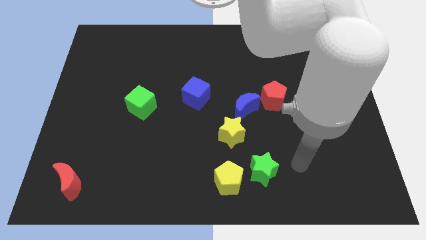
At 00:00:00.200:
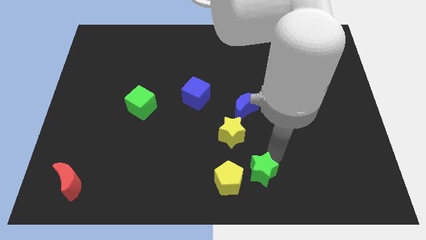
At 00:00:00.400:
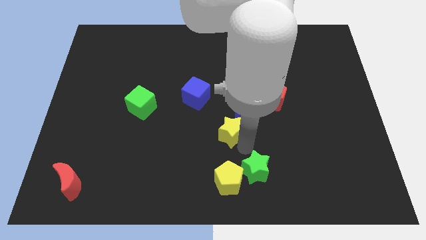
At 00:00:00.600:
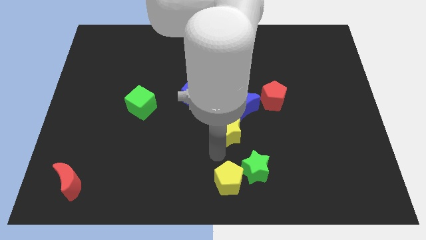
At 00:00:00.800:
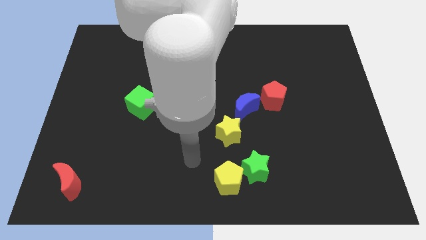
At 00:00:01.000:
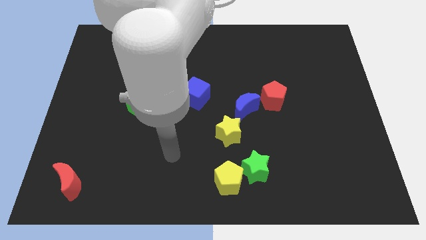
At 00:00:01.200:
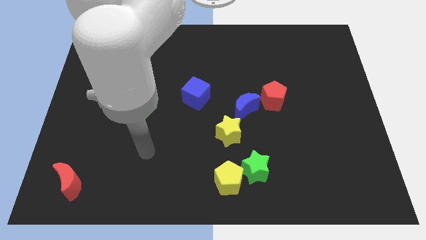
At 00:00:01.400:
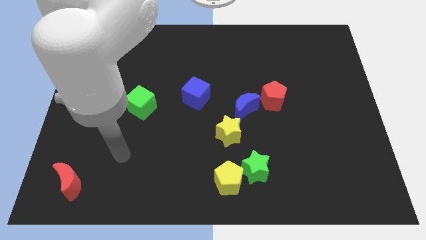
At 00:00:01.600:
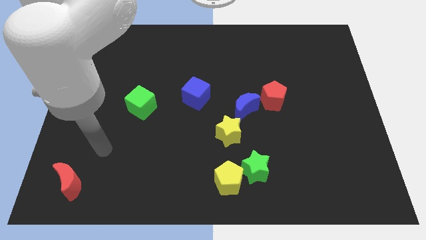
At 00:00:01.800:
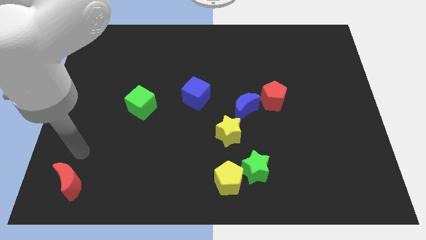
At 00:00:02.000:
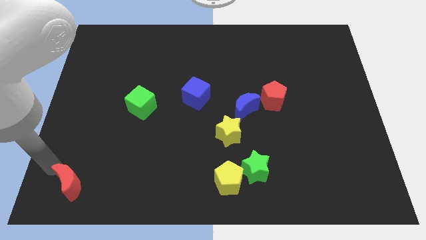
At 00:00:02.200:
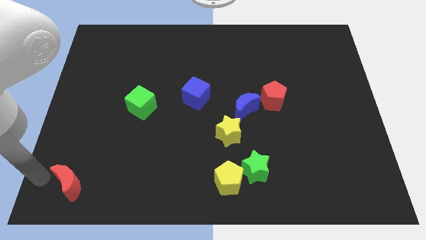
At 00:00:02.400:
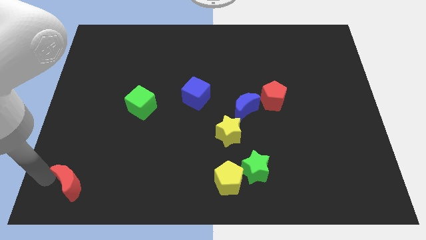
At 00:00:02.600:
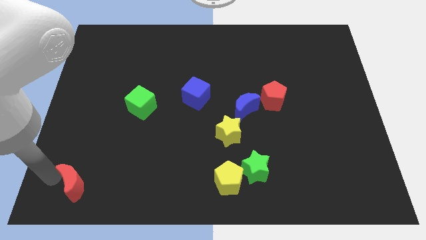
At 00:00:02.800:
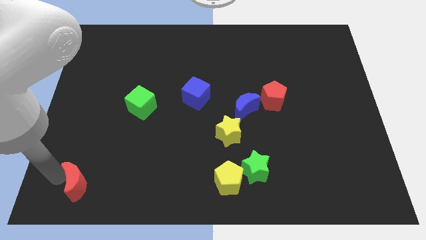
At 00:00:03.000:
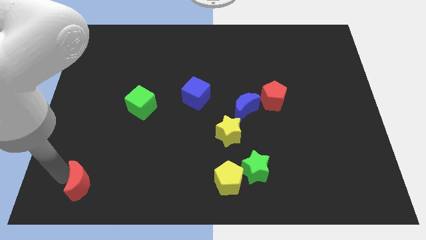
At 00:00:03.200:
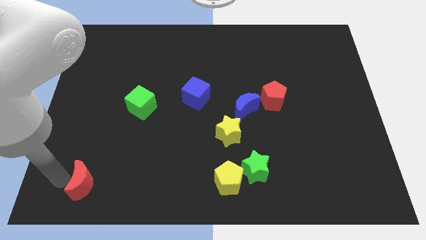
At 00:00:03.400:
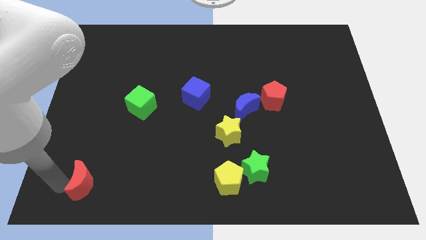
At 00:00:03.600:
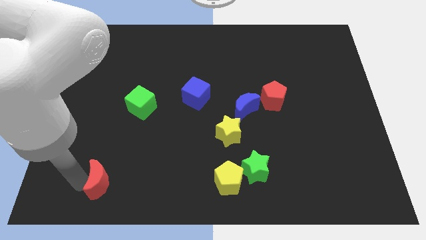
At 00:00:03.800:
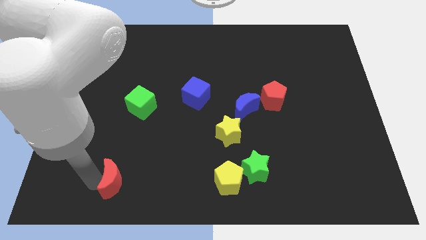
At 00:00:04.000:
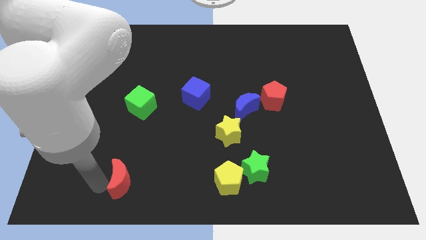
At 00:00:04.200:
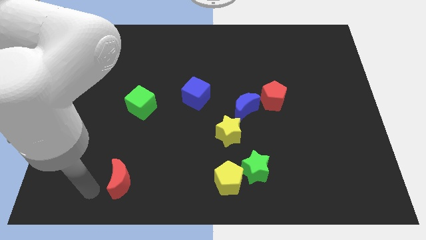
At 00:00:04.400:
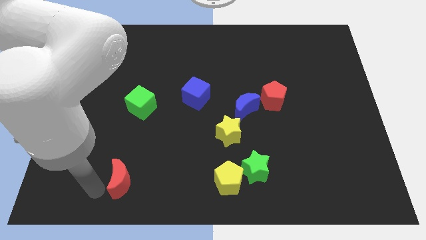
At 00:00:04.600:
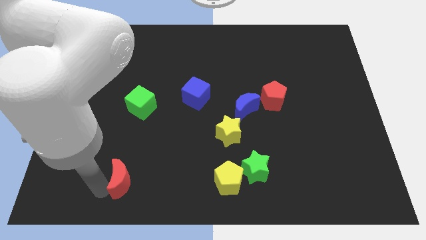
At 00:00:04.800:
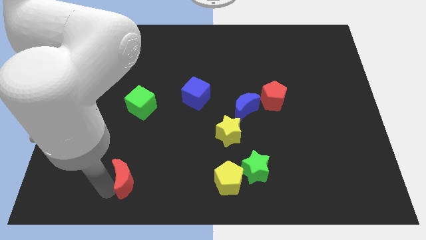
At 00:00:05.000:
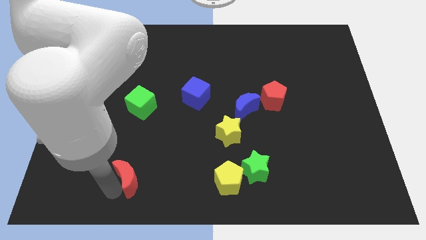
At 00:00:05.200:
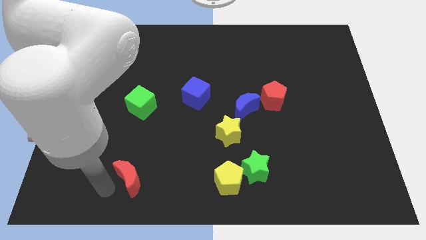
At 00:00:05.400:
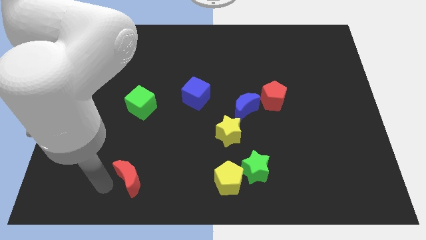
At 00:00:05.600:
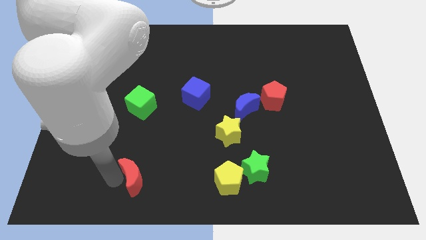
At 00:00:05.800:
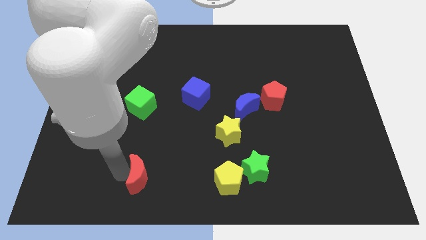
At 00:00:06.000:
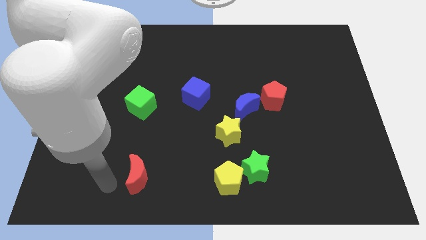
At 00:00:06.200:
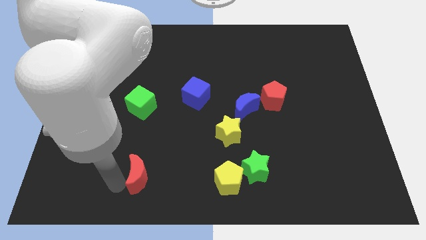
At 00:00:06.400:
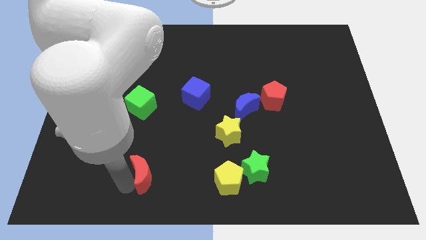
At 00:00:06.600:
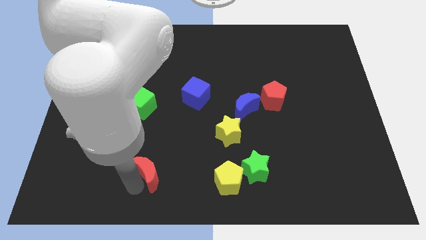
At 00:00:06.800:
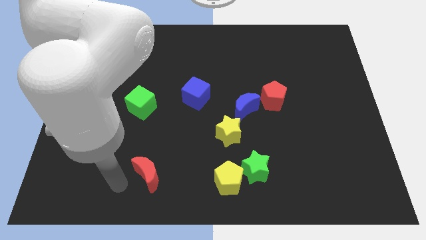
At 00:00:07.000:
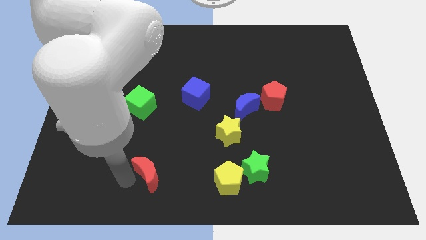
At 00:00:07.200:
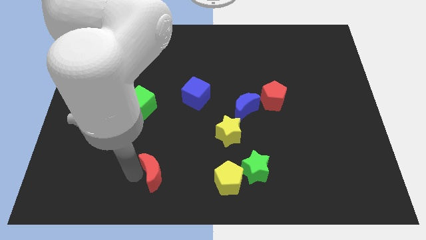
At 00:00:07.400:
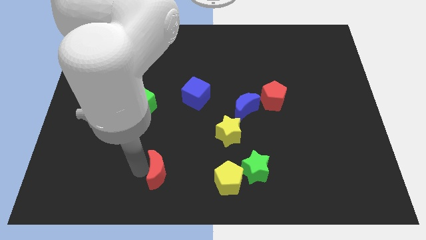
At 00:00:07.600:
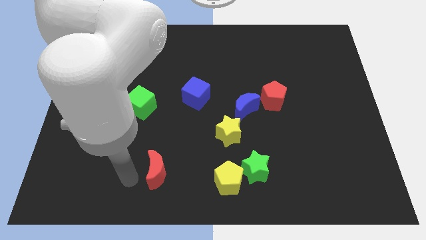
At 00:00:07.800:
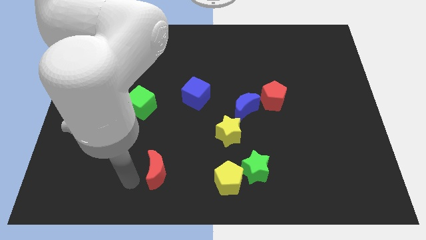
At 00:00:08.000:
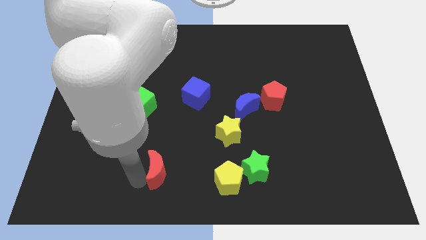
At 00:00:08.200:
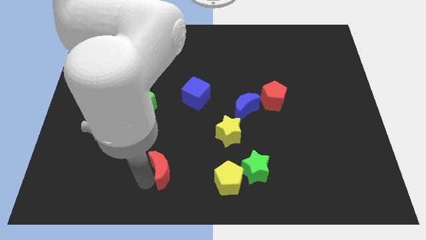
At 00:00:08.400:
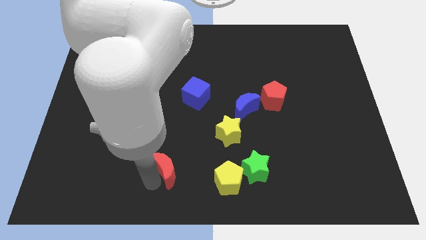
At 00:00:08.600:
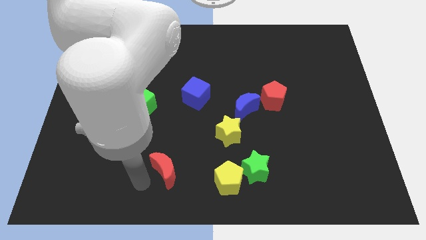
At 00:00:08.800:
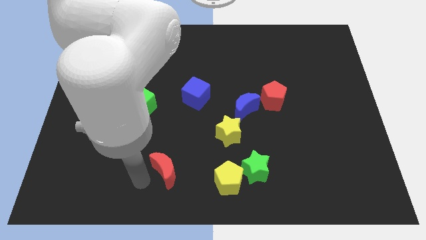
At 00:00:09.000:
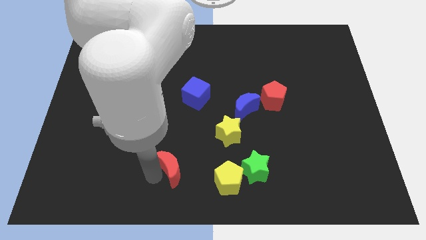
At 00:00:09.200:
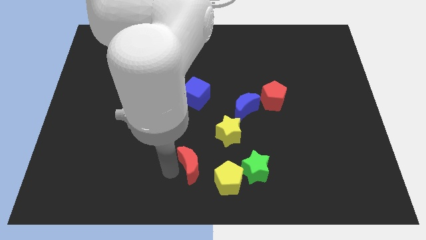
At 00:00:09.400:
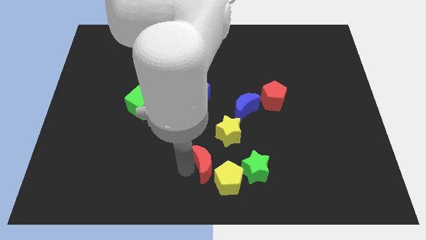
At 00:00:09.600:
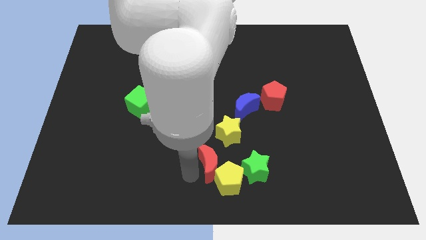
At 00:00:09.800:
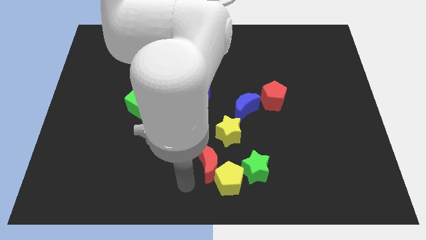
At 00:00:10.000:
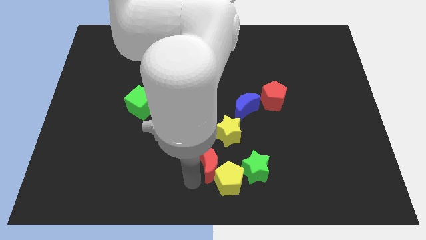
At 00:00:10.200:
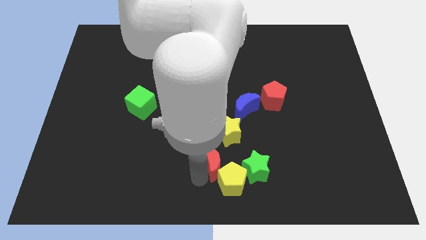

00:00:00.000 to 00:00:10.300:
slide the red moon to the top left of the green star

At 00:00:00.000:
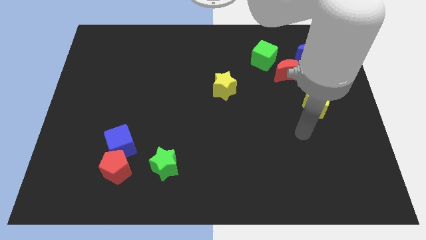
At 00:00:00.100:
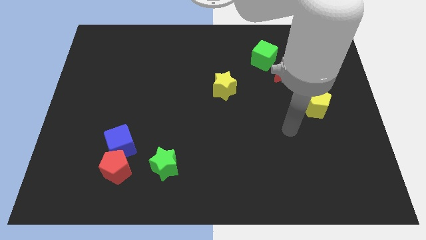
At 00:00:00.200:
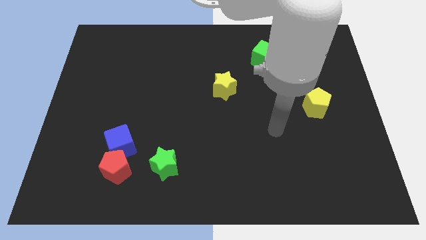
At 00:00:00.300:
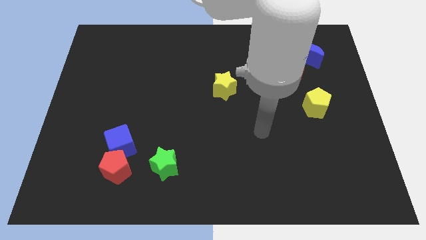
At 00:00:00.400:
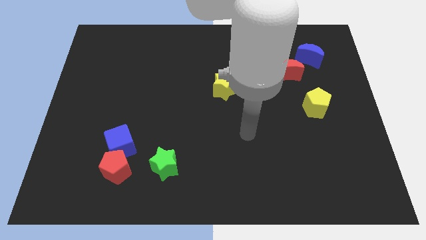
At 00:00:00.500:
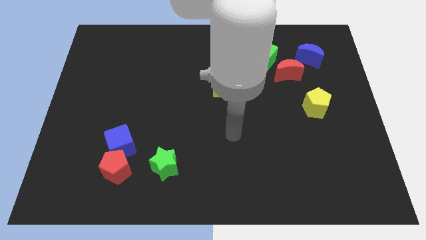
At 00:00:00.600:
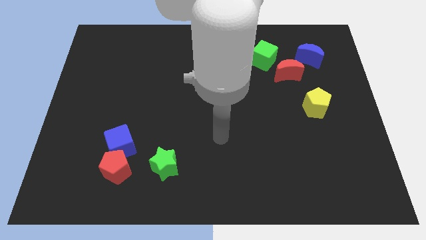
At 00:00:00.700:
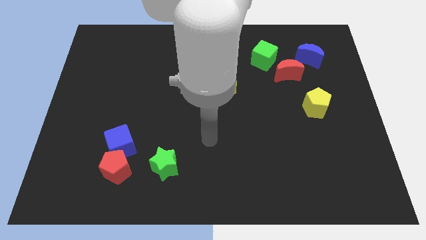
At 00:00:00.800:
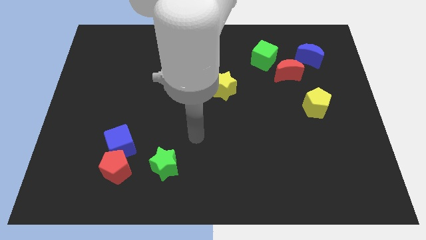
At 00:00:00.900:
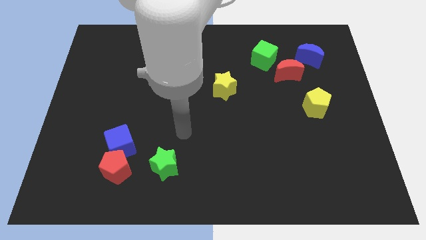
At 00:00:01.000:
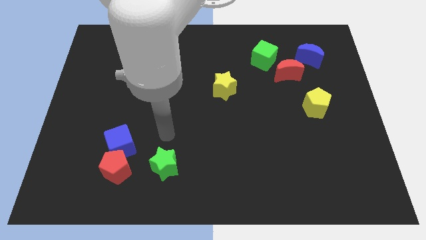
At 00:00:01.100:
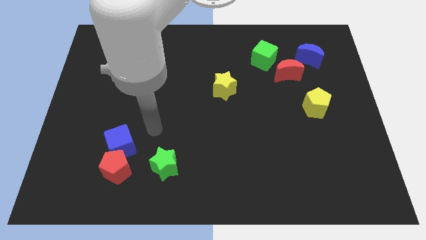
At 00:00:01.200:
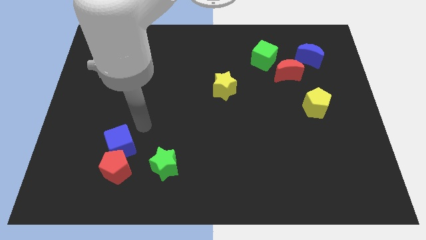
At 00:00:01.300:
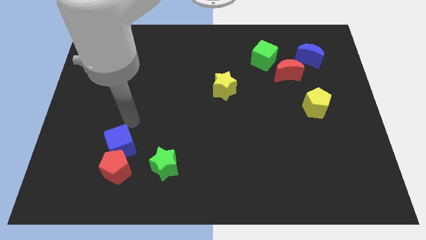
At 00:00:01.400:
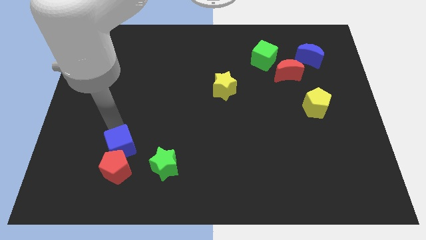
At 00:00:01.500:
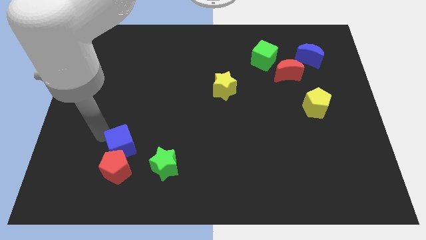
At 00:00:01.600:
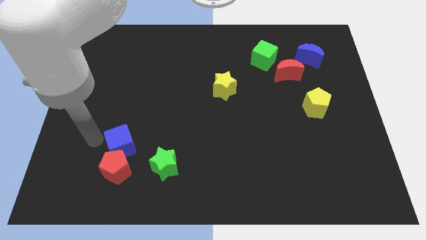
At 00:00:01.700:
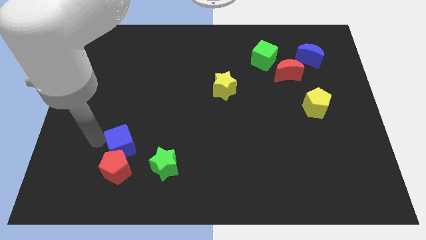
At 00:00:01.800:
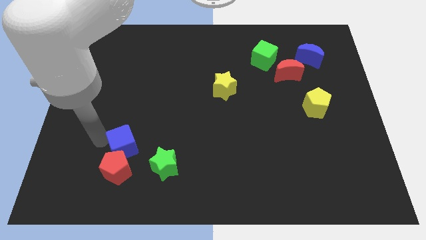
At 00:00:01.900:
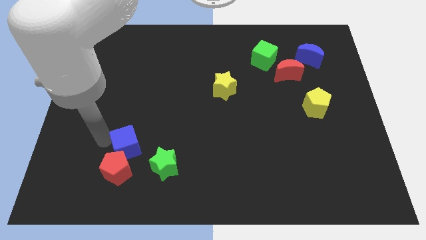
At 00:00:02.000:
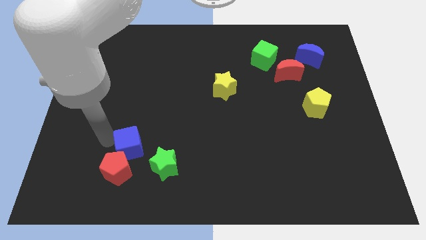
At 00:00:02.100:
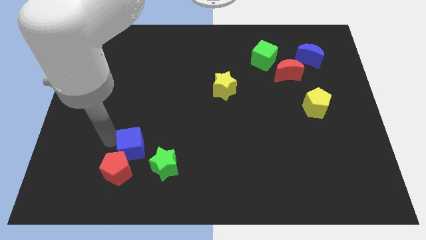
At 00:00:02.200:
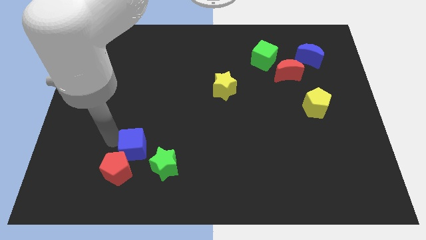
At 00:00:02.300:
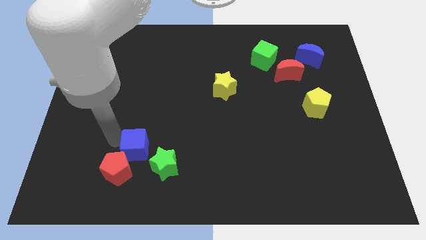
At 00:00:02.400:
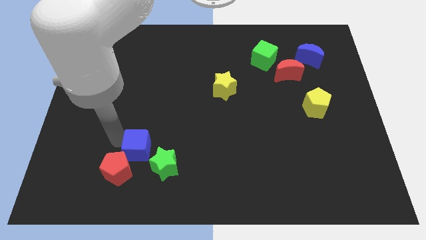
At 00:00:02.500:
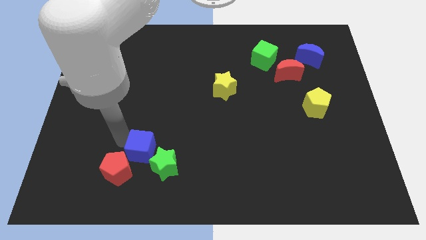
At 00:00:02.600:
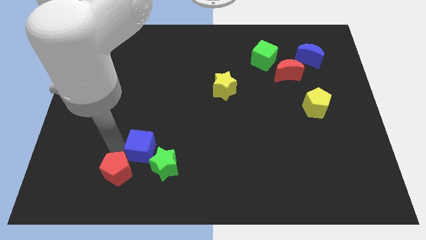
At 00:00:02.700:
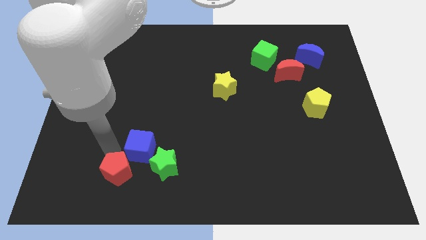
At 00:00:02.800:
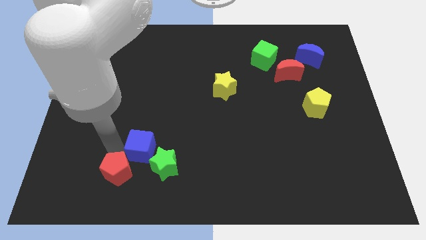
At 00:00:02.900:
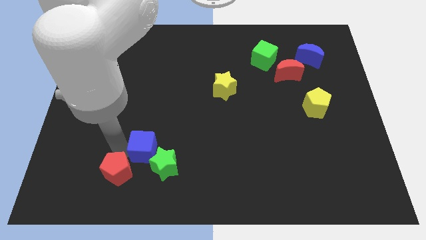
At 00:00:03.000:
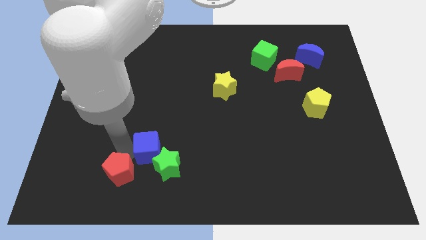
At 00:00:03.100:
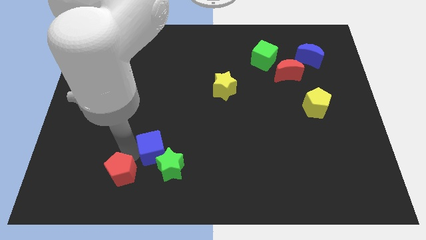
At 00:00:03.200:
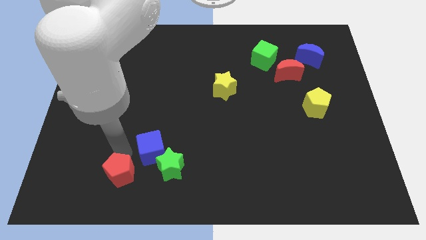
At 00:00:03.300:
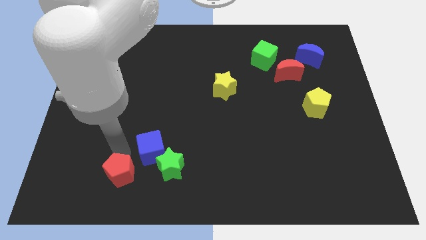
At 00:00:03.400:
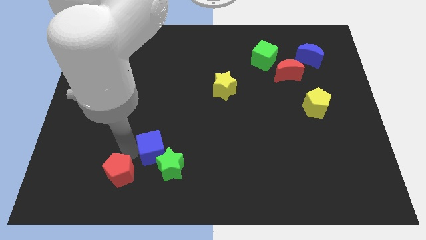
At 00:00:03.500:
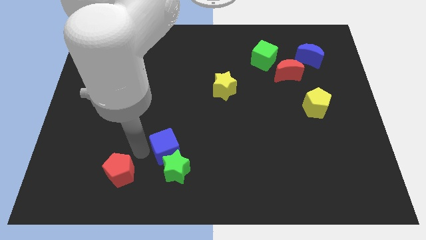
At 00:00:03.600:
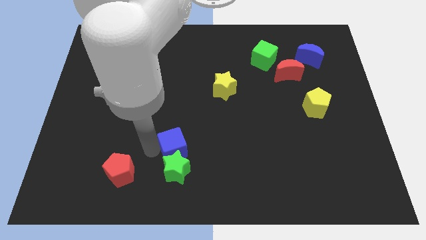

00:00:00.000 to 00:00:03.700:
slide the blue cube to the top right of the green star
